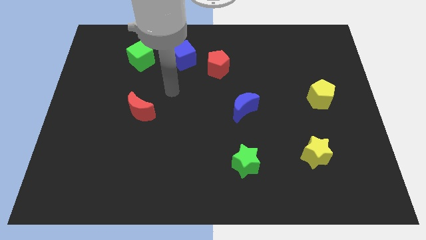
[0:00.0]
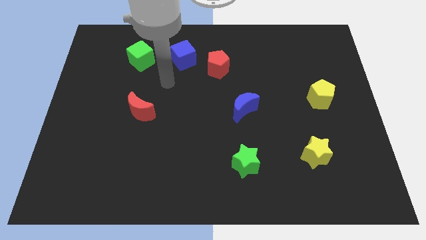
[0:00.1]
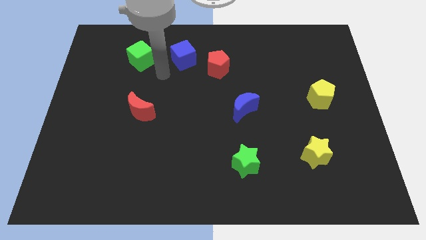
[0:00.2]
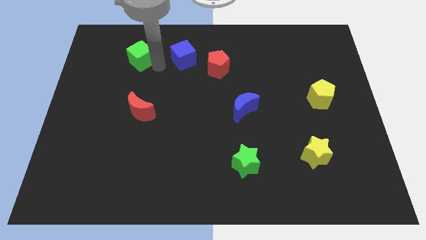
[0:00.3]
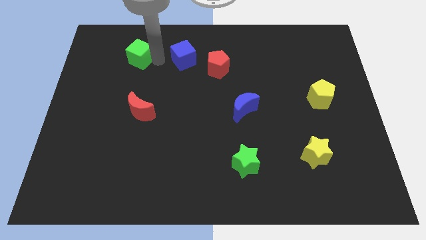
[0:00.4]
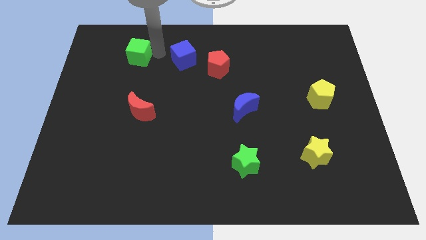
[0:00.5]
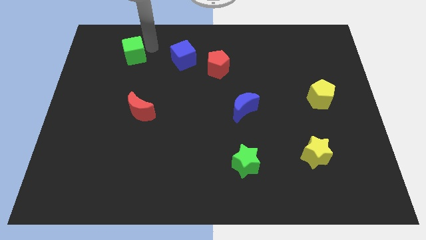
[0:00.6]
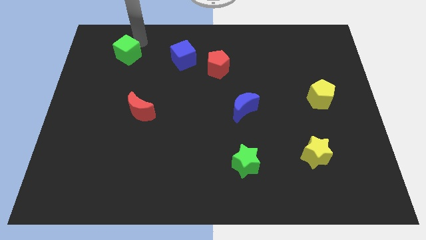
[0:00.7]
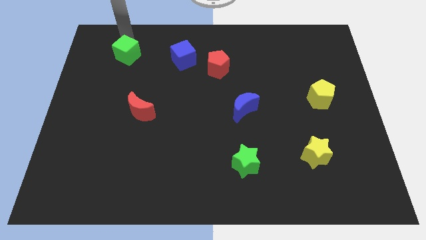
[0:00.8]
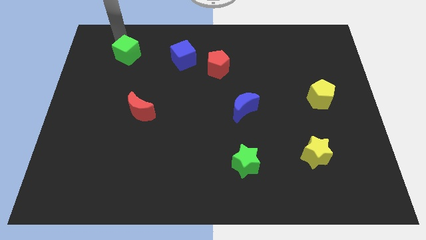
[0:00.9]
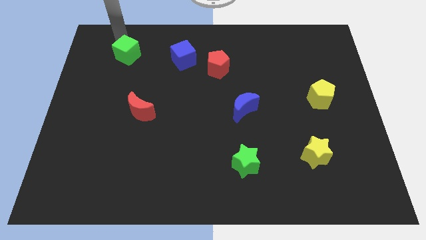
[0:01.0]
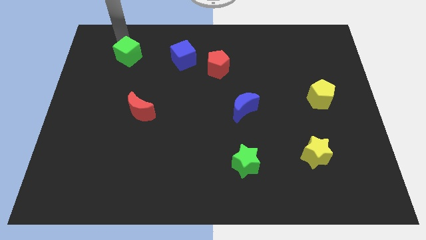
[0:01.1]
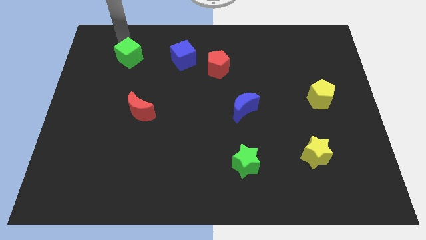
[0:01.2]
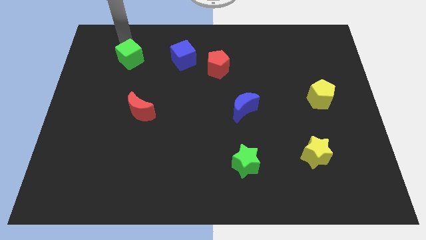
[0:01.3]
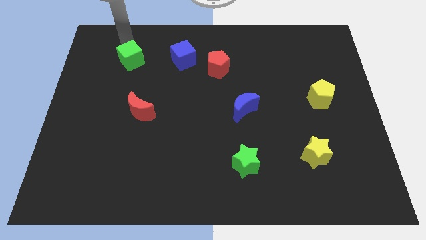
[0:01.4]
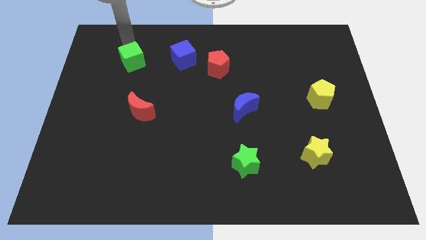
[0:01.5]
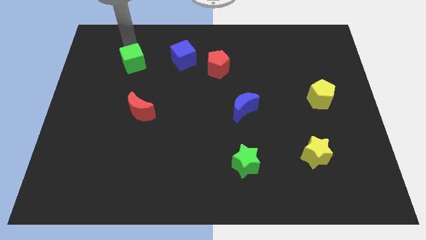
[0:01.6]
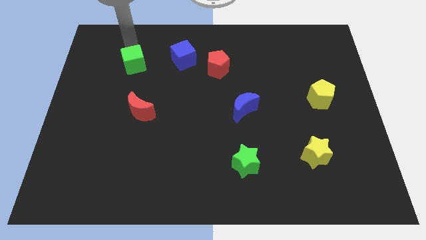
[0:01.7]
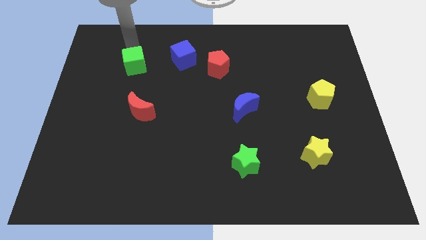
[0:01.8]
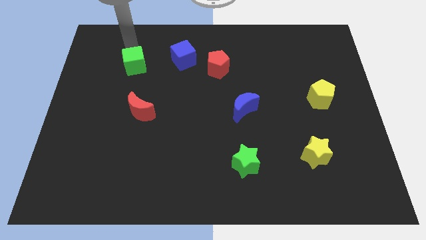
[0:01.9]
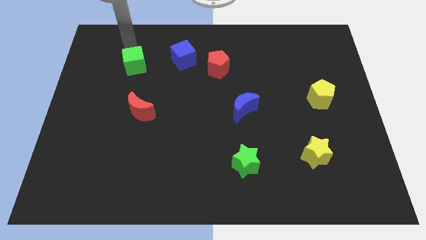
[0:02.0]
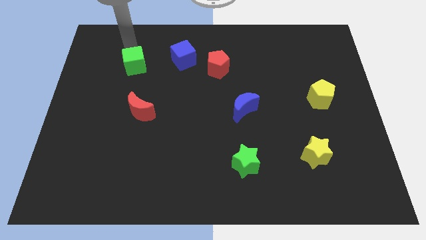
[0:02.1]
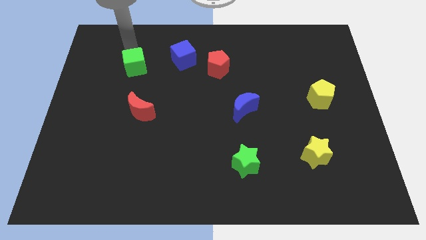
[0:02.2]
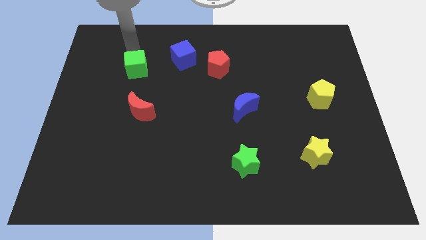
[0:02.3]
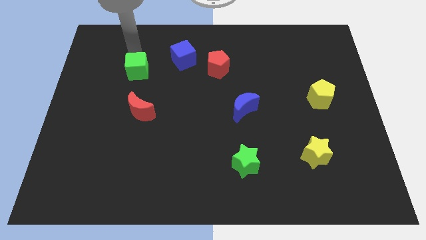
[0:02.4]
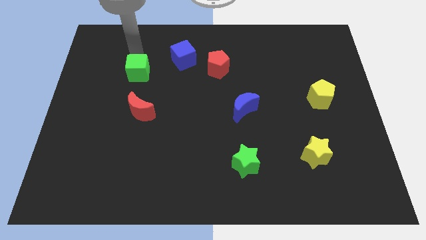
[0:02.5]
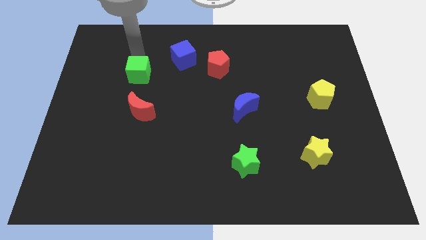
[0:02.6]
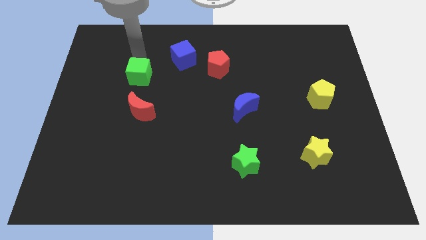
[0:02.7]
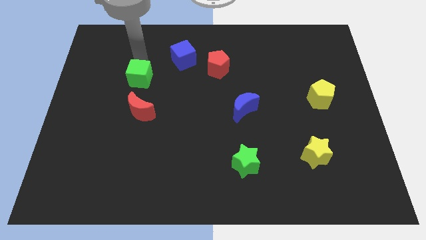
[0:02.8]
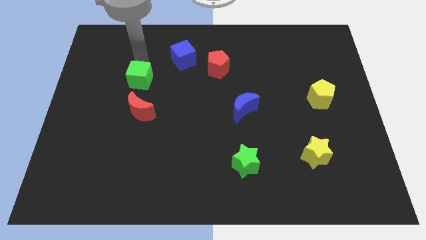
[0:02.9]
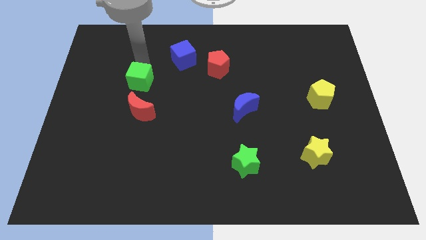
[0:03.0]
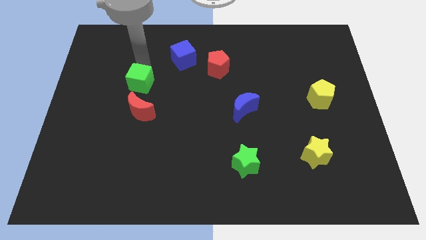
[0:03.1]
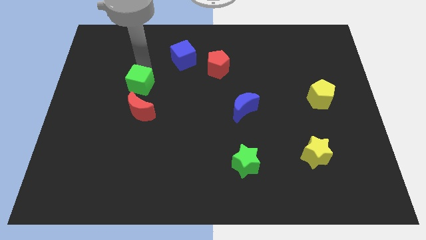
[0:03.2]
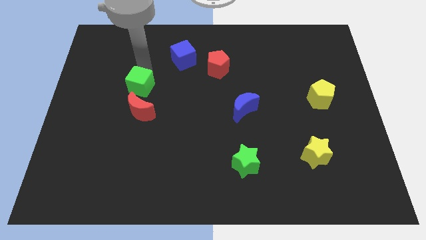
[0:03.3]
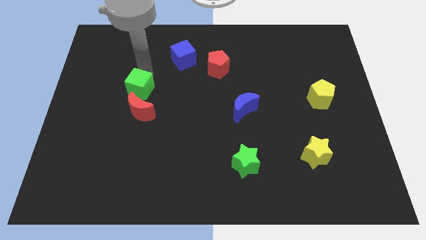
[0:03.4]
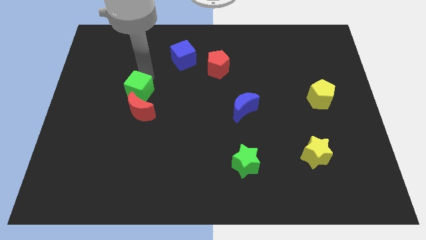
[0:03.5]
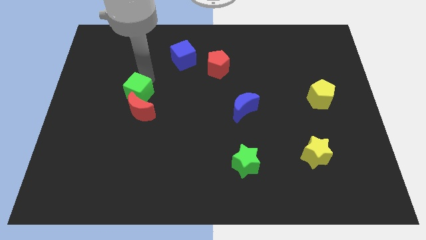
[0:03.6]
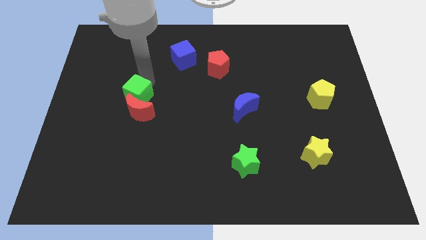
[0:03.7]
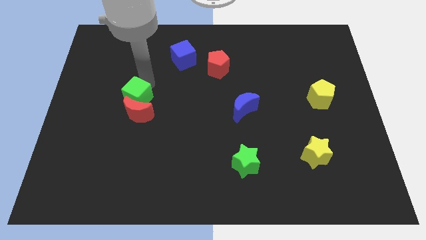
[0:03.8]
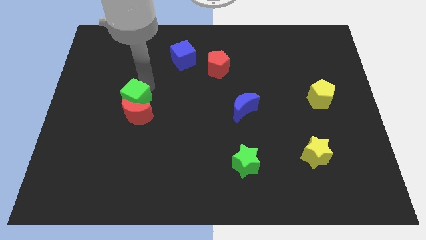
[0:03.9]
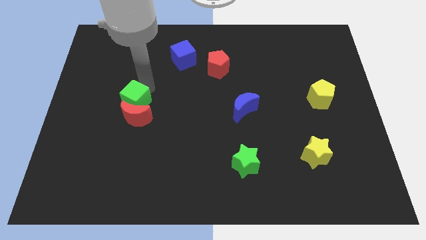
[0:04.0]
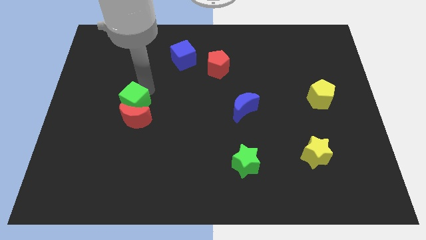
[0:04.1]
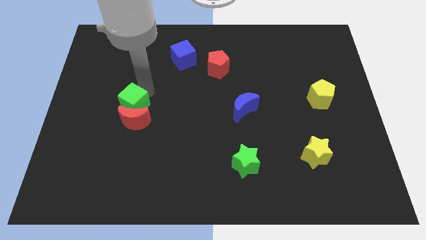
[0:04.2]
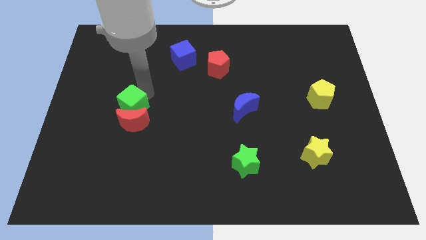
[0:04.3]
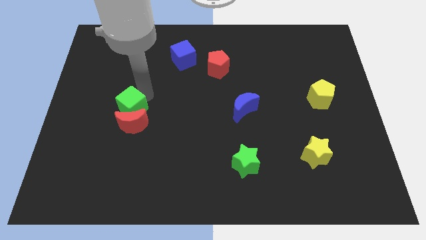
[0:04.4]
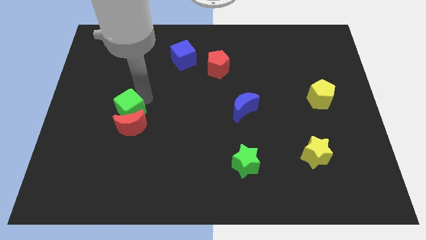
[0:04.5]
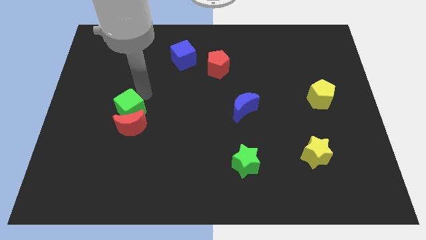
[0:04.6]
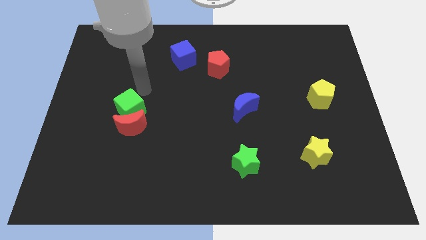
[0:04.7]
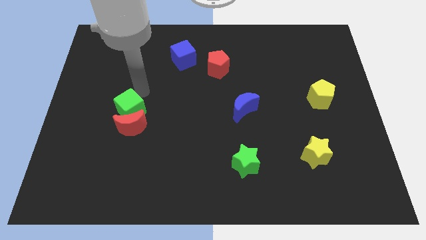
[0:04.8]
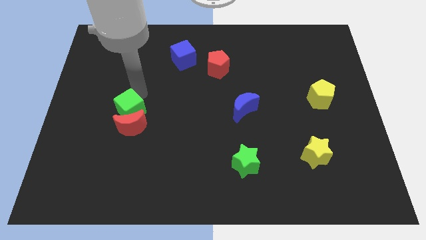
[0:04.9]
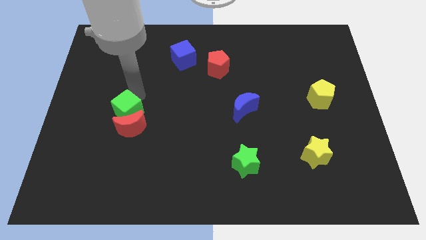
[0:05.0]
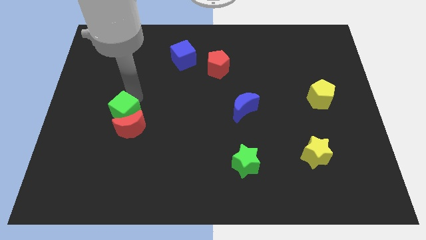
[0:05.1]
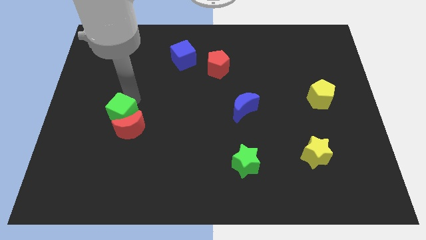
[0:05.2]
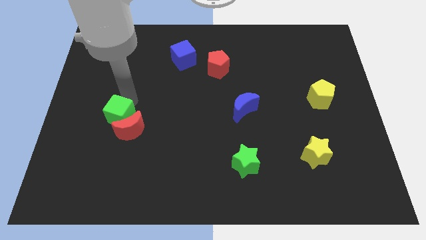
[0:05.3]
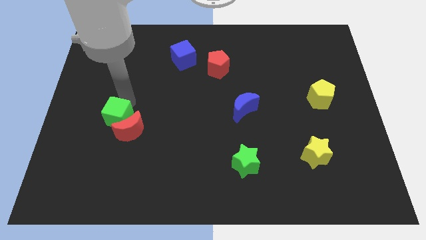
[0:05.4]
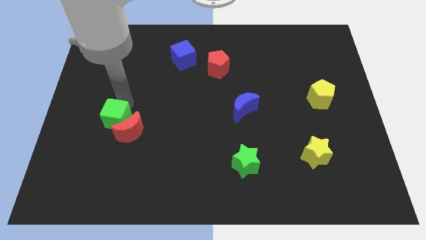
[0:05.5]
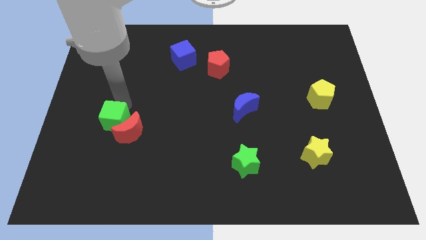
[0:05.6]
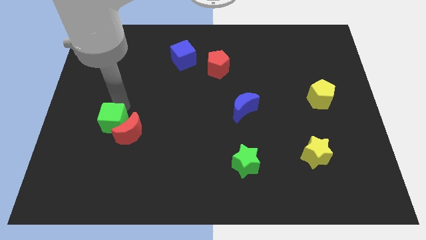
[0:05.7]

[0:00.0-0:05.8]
slide the green cube down

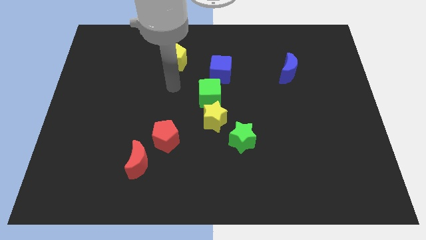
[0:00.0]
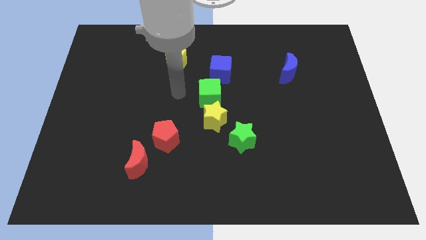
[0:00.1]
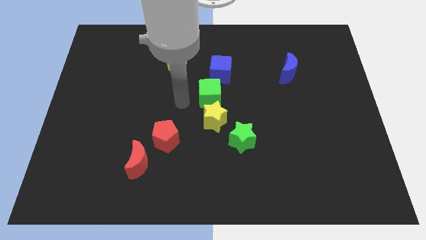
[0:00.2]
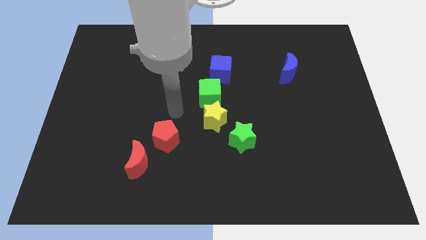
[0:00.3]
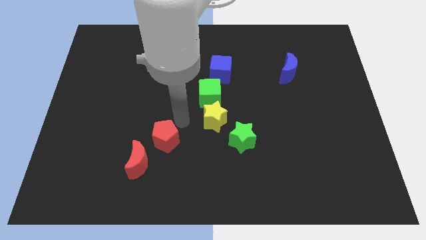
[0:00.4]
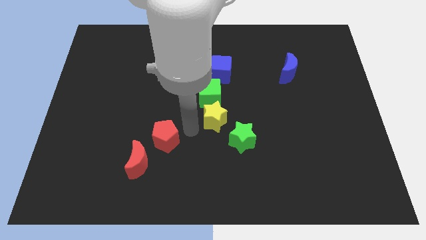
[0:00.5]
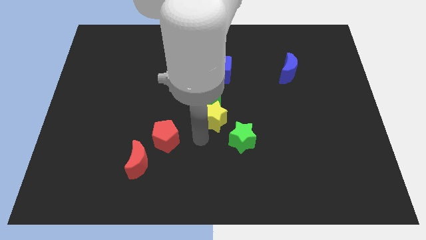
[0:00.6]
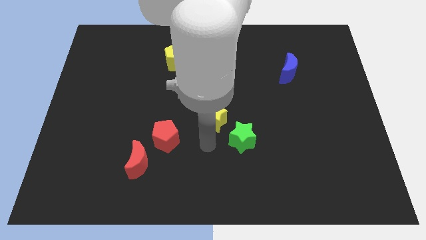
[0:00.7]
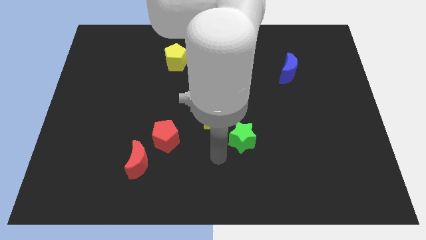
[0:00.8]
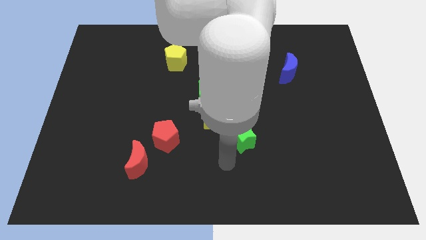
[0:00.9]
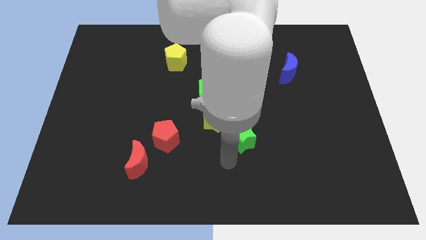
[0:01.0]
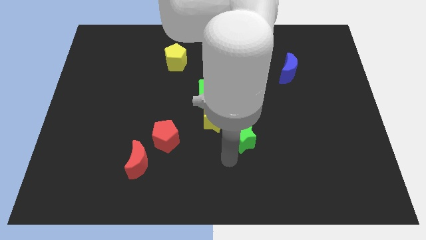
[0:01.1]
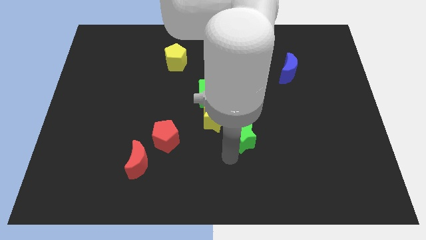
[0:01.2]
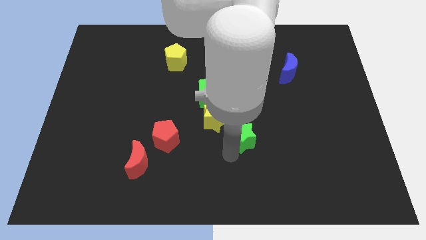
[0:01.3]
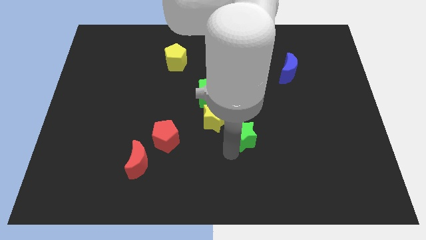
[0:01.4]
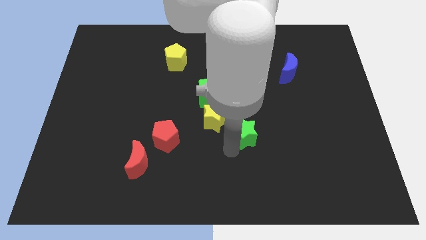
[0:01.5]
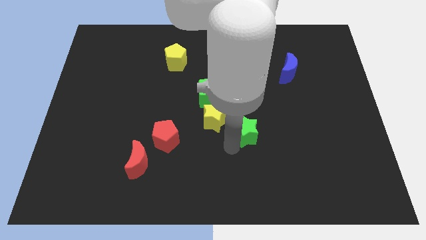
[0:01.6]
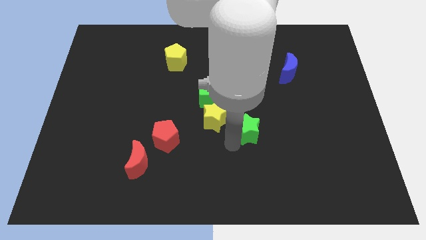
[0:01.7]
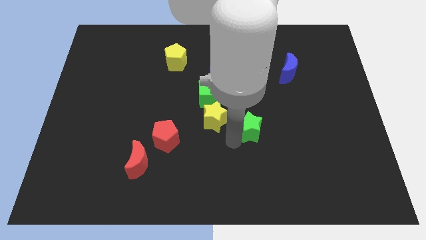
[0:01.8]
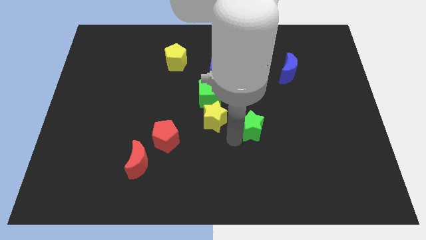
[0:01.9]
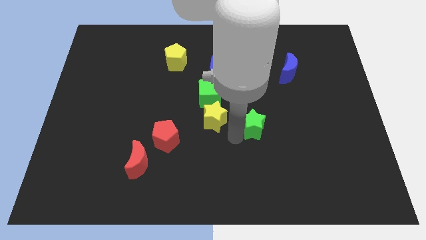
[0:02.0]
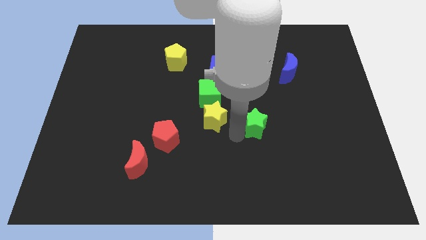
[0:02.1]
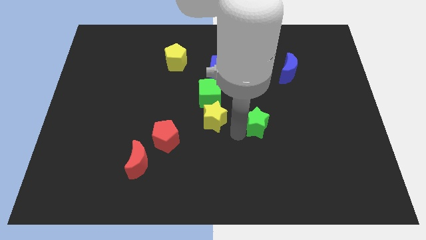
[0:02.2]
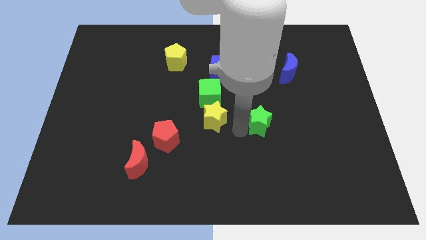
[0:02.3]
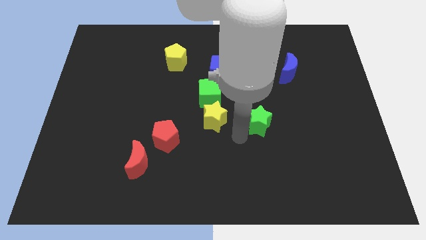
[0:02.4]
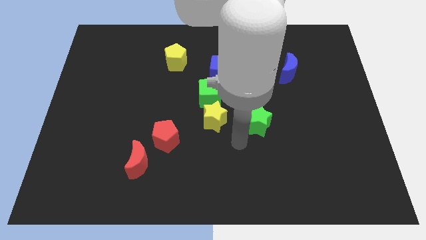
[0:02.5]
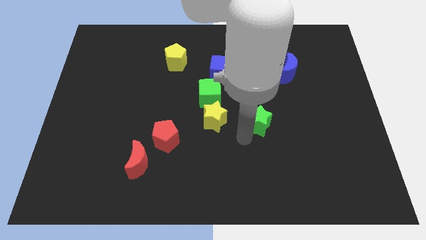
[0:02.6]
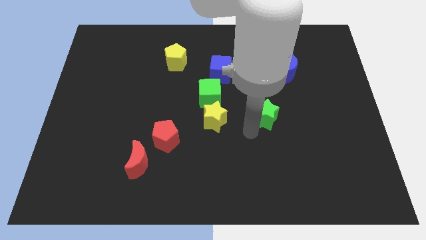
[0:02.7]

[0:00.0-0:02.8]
slide the green star diagonally upwards and to the right a bit

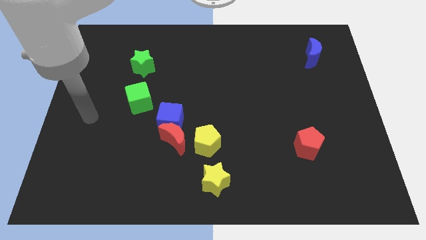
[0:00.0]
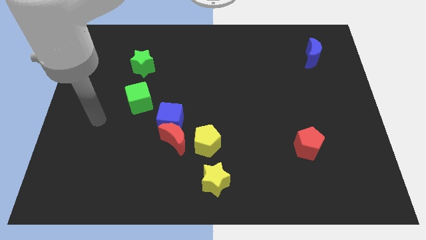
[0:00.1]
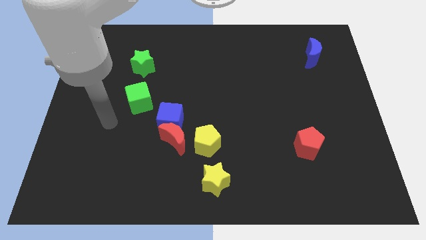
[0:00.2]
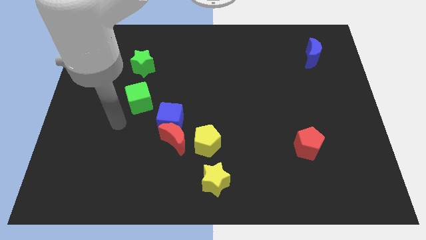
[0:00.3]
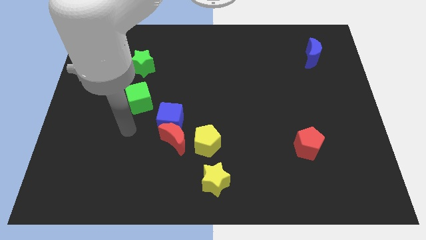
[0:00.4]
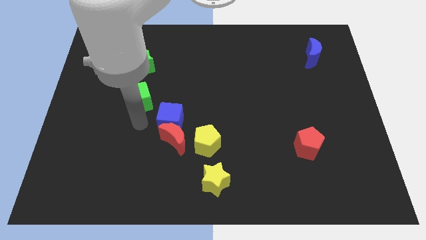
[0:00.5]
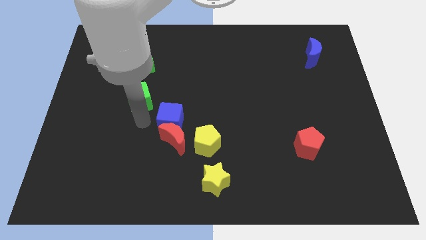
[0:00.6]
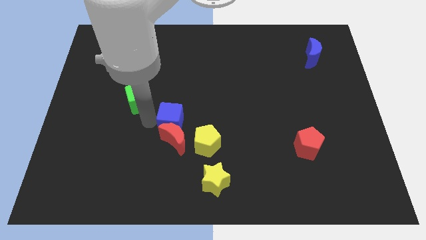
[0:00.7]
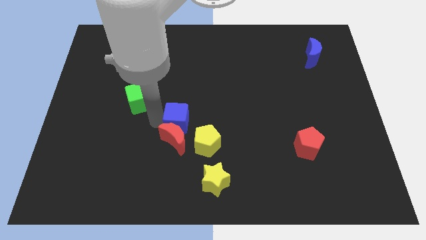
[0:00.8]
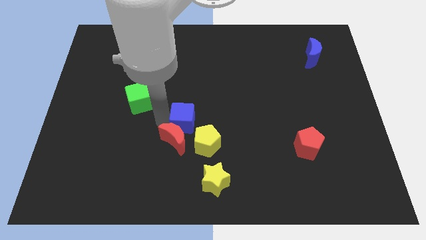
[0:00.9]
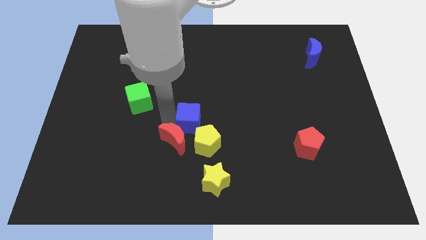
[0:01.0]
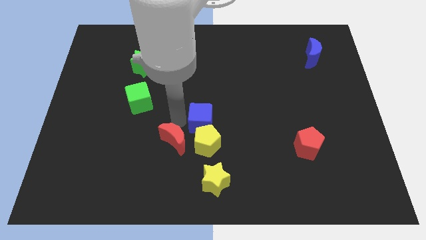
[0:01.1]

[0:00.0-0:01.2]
push the blue cube slightly right
